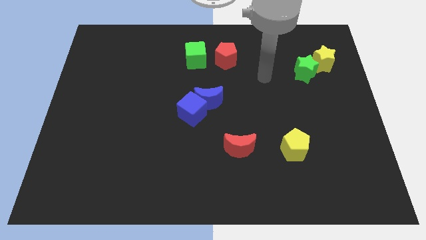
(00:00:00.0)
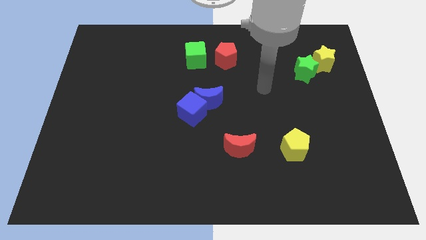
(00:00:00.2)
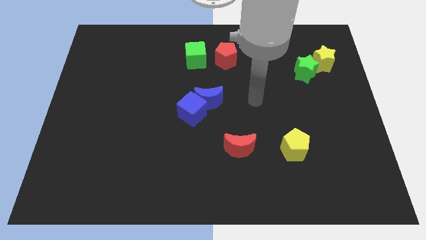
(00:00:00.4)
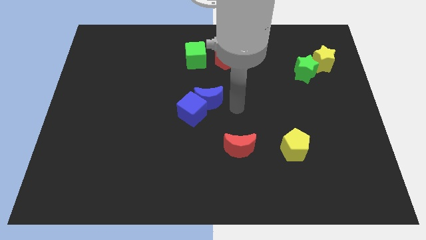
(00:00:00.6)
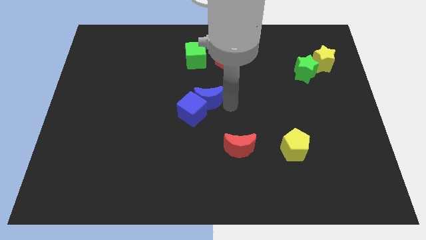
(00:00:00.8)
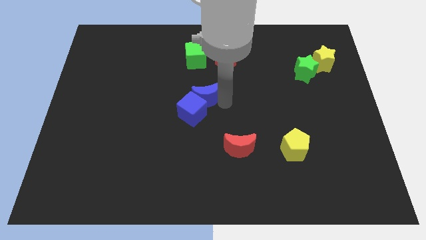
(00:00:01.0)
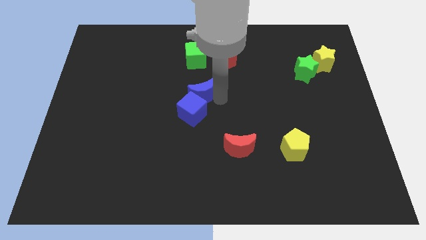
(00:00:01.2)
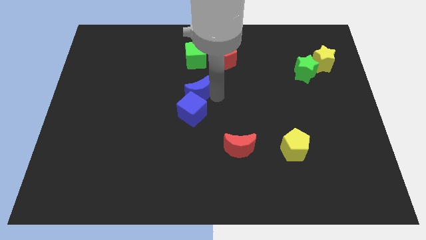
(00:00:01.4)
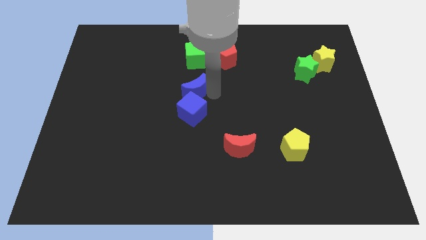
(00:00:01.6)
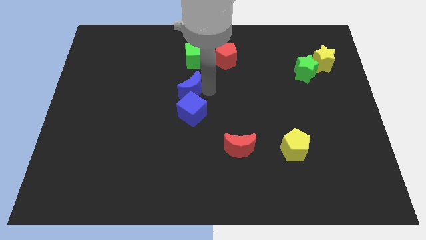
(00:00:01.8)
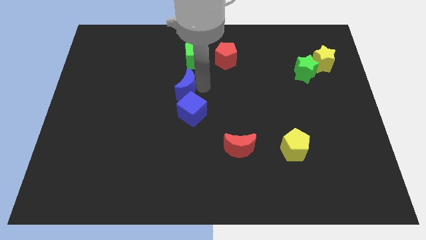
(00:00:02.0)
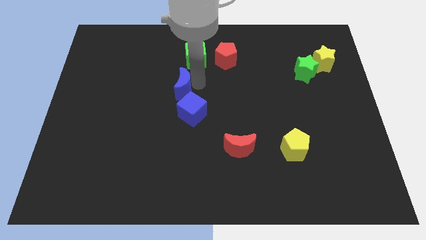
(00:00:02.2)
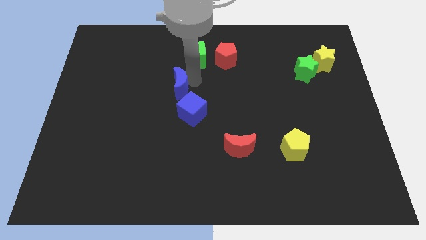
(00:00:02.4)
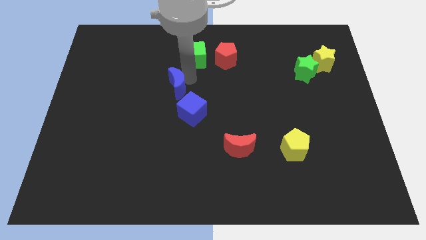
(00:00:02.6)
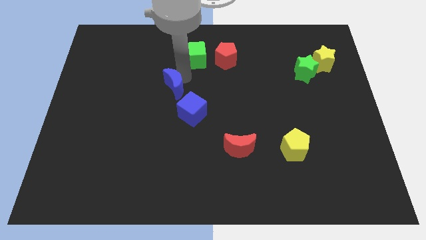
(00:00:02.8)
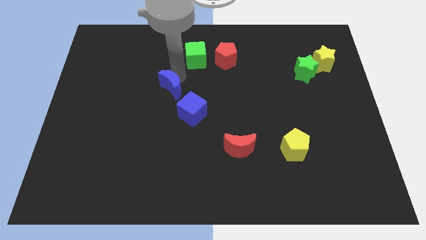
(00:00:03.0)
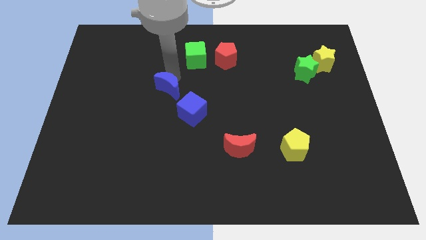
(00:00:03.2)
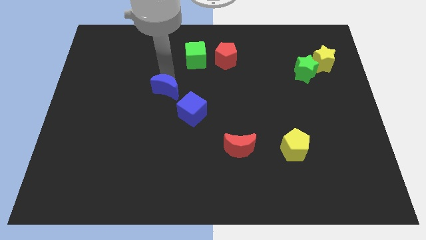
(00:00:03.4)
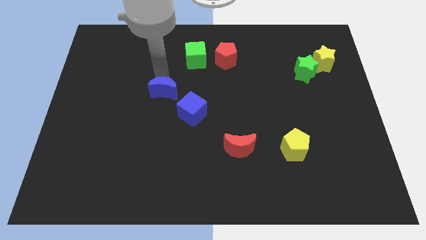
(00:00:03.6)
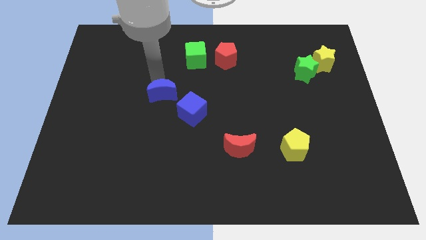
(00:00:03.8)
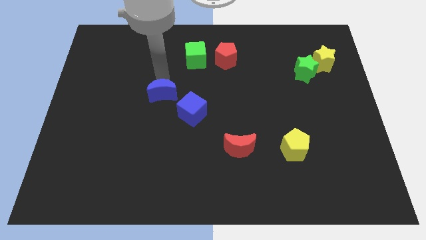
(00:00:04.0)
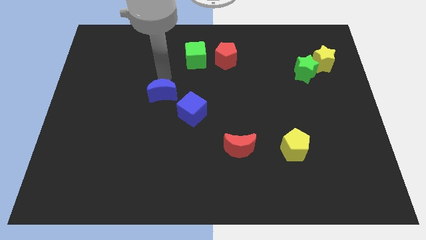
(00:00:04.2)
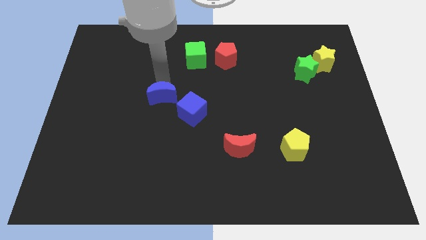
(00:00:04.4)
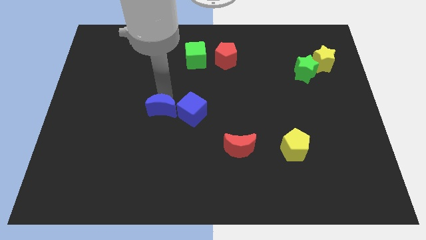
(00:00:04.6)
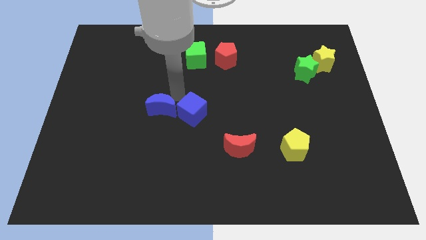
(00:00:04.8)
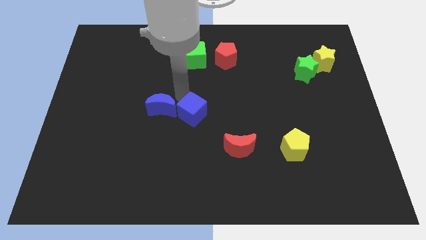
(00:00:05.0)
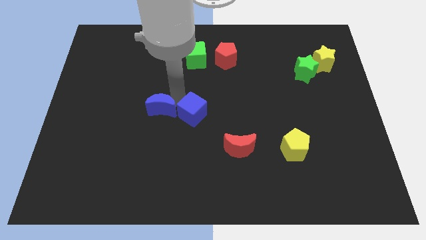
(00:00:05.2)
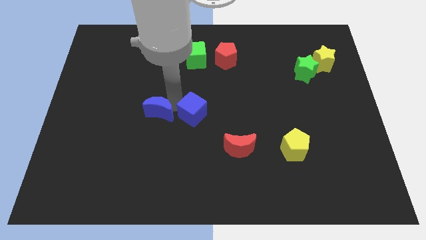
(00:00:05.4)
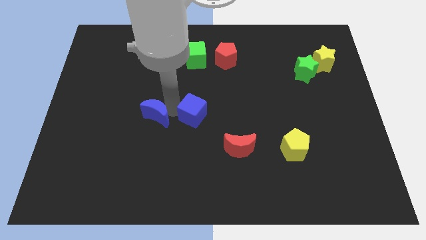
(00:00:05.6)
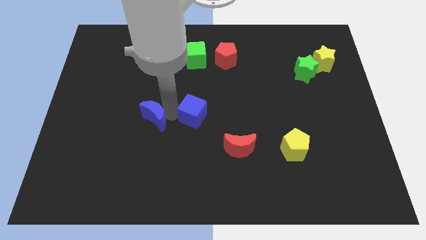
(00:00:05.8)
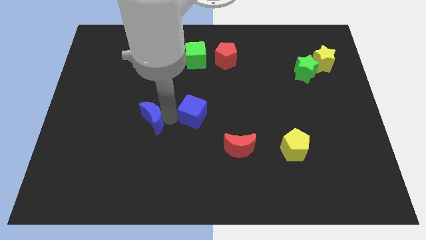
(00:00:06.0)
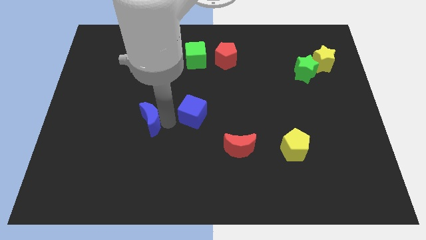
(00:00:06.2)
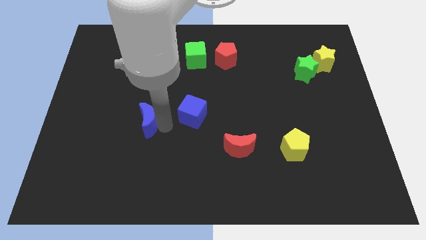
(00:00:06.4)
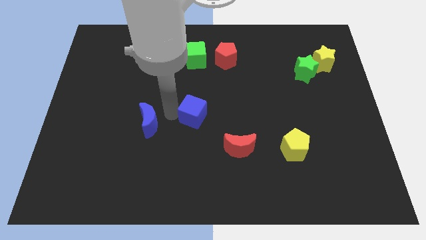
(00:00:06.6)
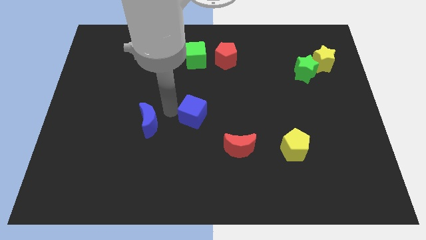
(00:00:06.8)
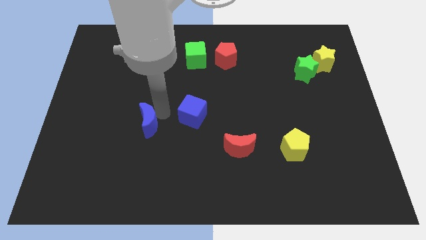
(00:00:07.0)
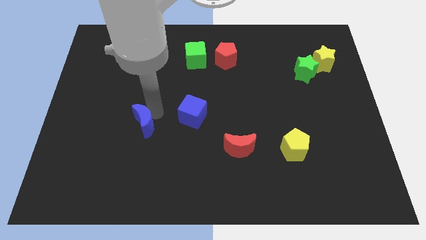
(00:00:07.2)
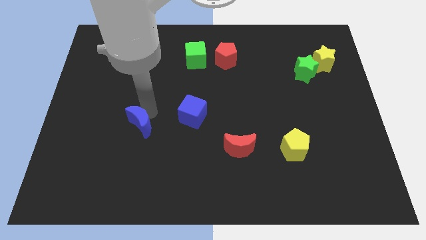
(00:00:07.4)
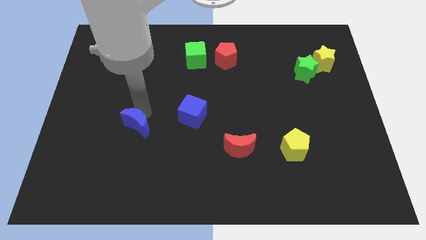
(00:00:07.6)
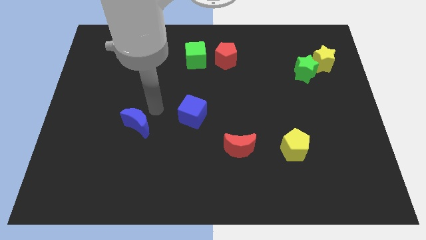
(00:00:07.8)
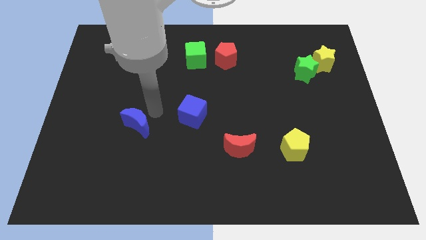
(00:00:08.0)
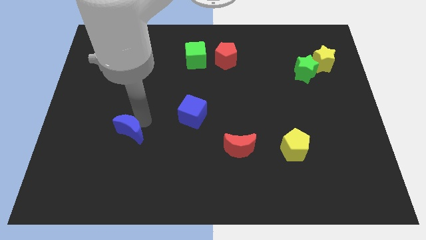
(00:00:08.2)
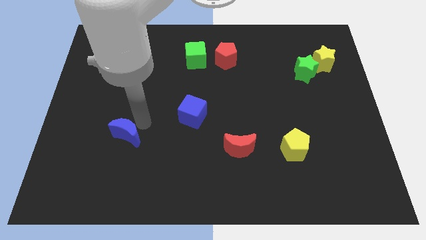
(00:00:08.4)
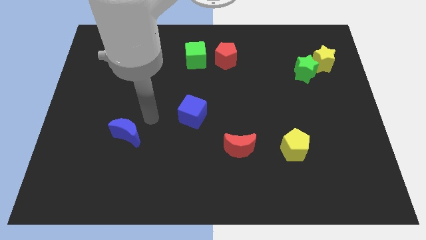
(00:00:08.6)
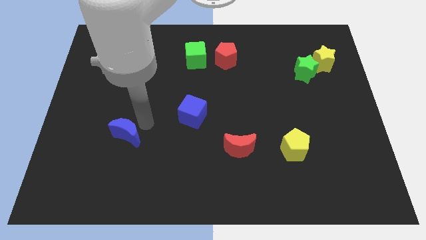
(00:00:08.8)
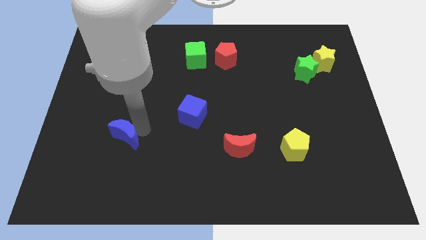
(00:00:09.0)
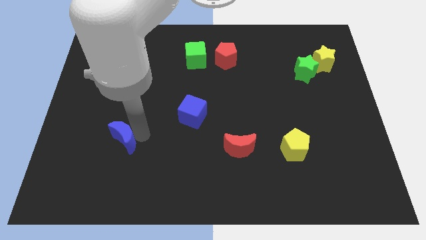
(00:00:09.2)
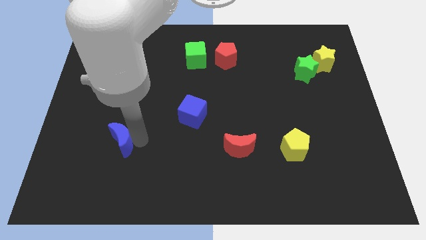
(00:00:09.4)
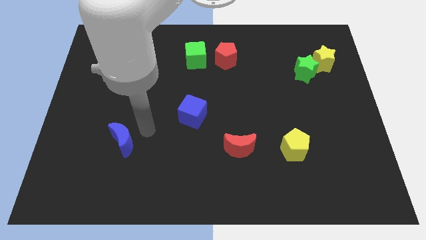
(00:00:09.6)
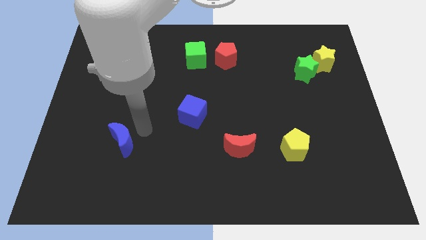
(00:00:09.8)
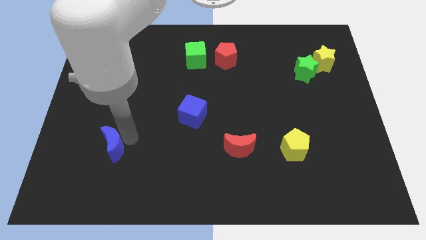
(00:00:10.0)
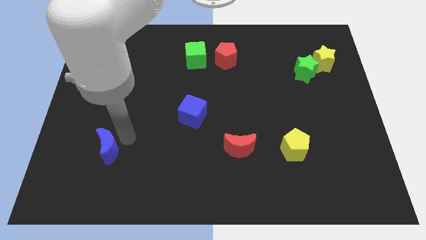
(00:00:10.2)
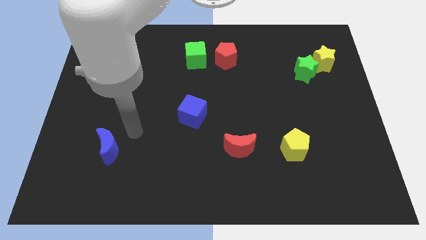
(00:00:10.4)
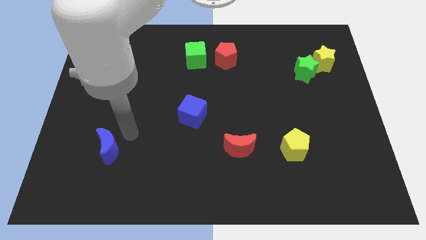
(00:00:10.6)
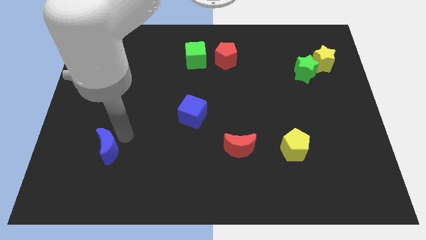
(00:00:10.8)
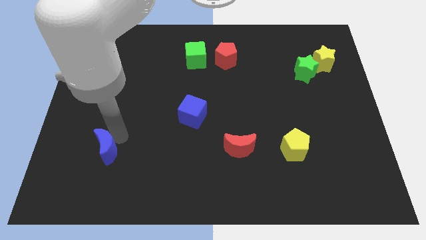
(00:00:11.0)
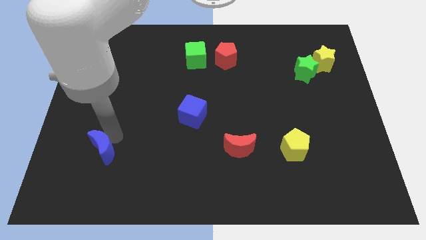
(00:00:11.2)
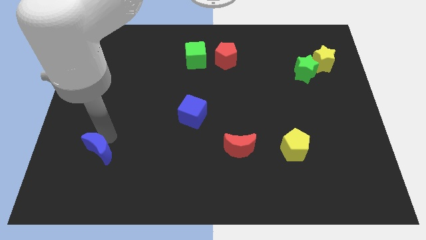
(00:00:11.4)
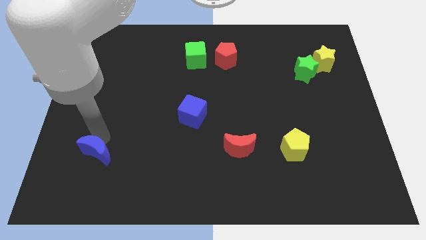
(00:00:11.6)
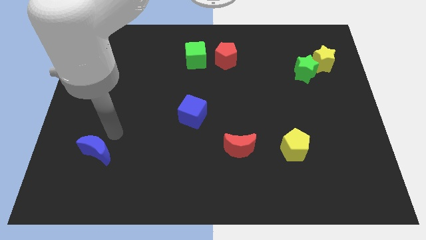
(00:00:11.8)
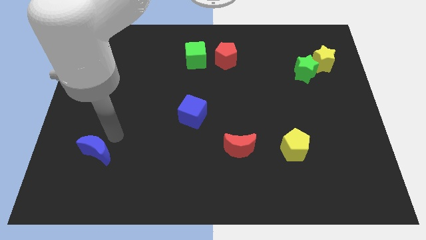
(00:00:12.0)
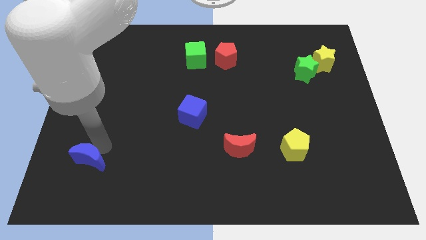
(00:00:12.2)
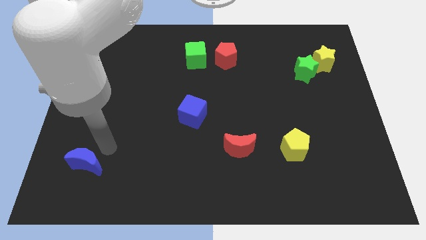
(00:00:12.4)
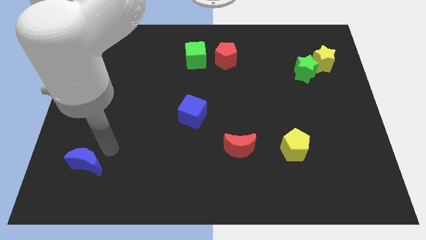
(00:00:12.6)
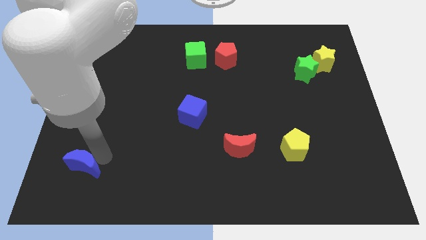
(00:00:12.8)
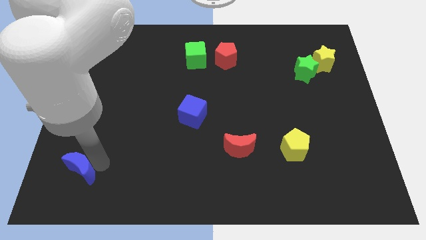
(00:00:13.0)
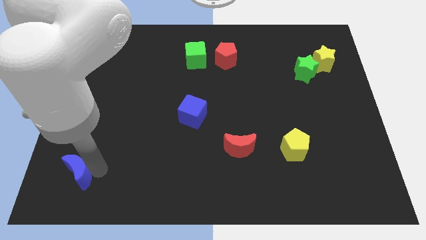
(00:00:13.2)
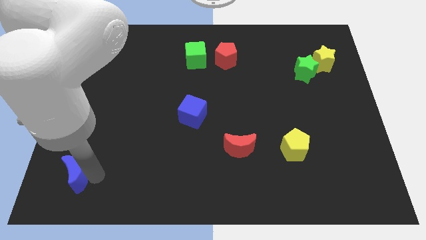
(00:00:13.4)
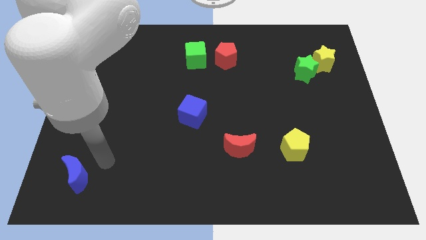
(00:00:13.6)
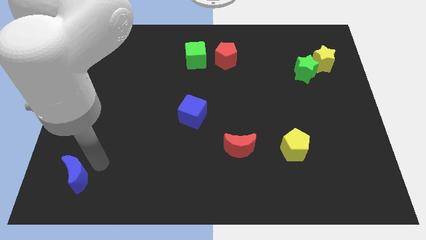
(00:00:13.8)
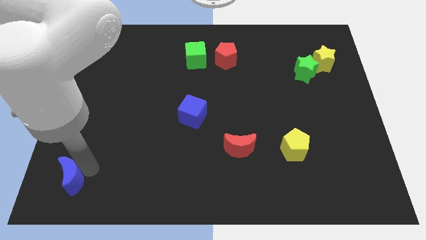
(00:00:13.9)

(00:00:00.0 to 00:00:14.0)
push the blue moon to the bottom left corner

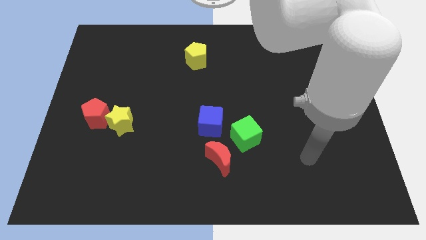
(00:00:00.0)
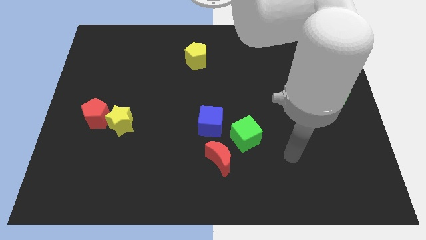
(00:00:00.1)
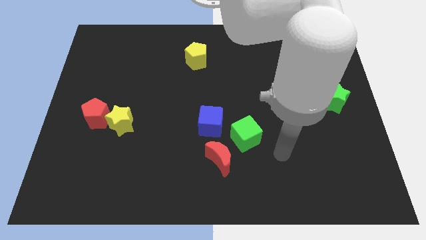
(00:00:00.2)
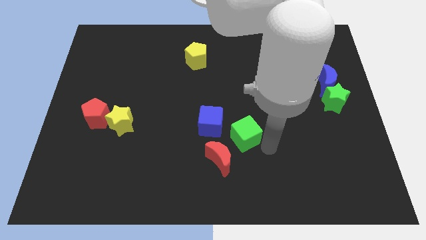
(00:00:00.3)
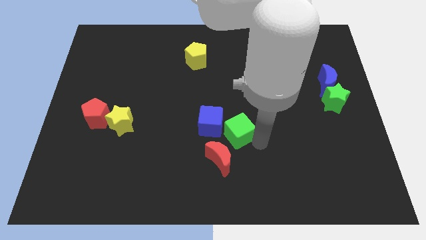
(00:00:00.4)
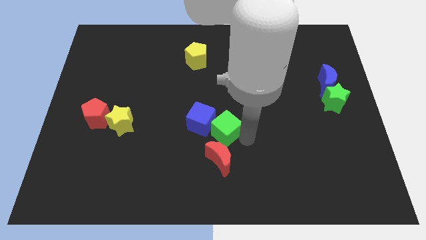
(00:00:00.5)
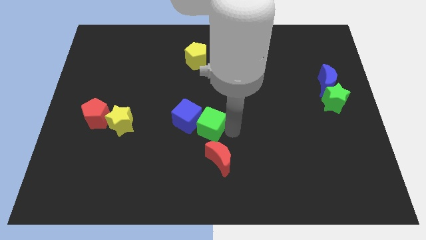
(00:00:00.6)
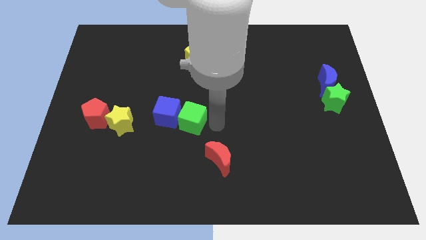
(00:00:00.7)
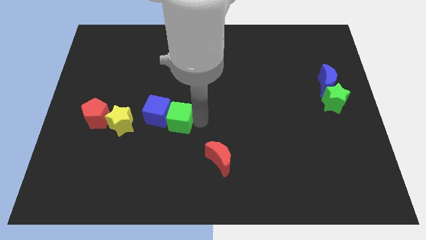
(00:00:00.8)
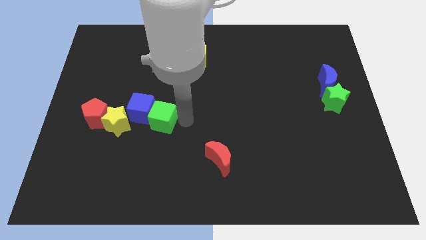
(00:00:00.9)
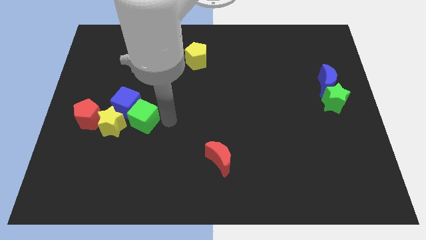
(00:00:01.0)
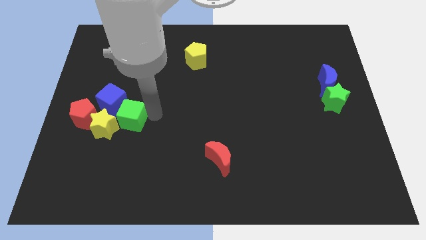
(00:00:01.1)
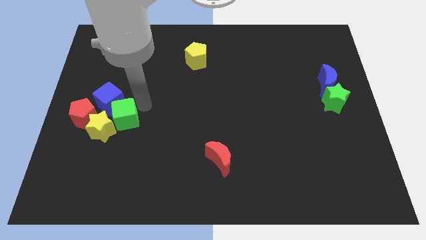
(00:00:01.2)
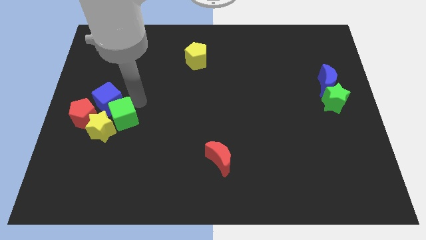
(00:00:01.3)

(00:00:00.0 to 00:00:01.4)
put the blue cube to the left side of the board
